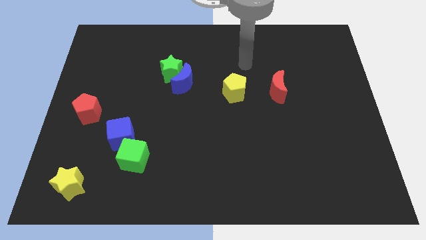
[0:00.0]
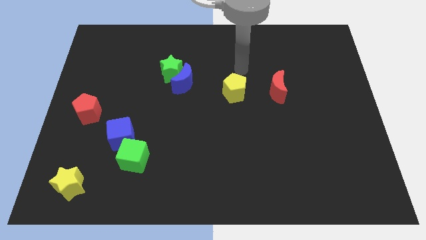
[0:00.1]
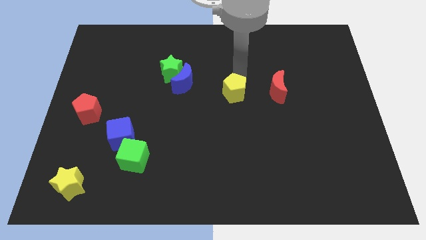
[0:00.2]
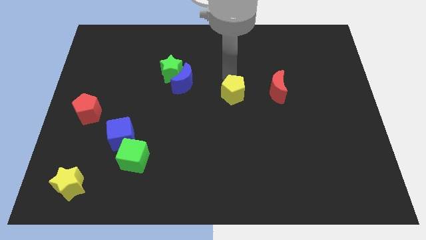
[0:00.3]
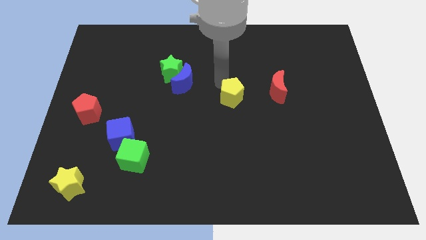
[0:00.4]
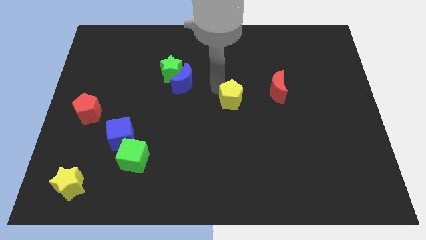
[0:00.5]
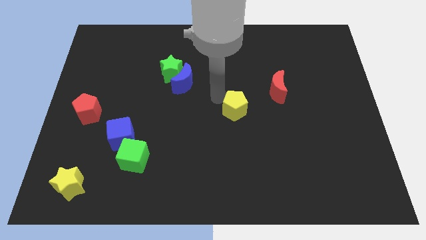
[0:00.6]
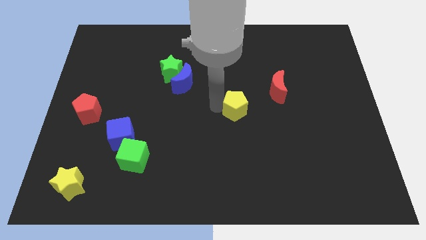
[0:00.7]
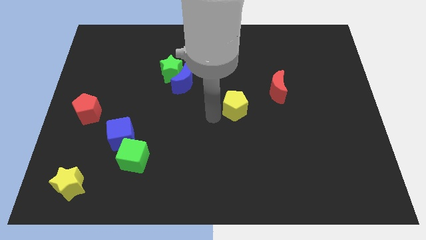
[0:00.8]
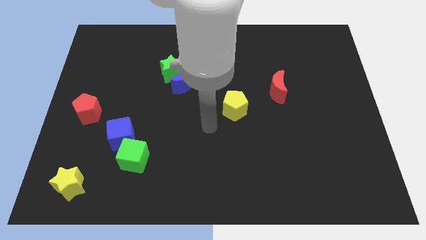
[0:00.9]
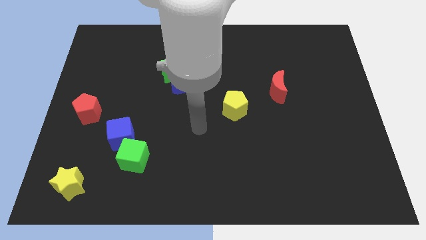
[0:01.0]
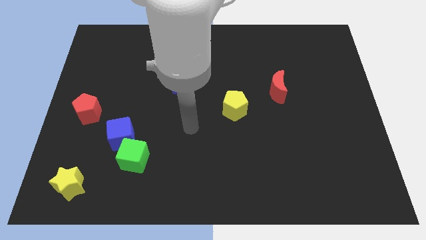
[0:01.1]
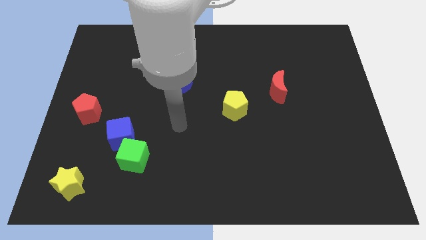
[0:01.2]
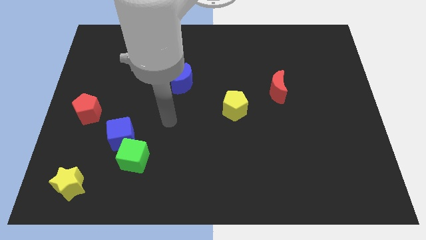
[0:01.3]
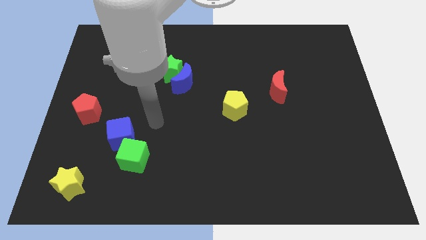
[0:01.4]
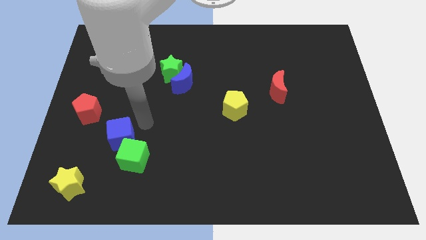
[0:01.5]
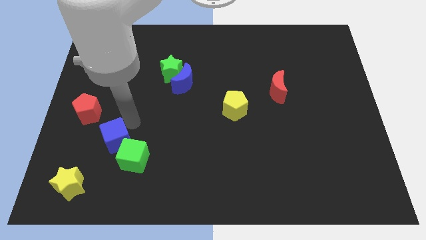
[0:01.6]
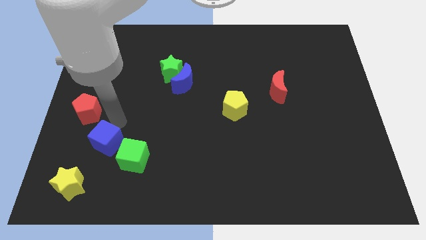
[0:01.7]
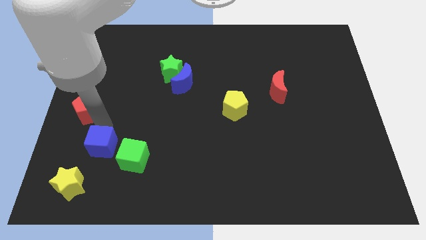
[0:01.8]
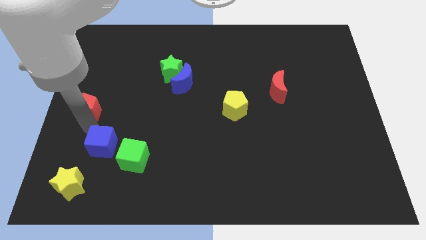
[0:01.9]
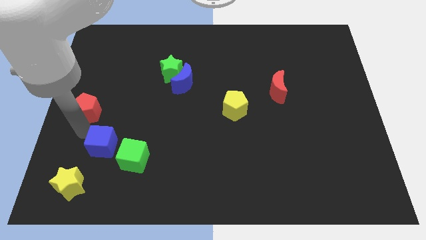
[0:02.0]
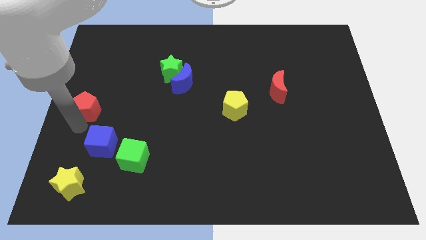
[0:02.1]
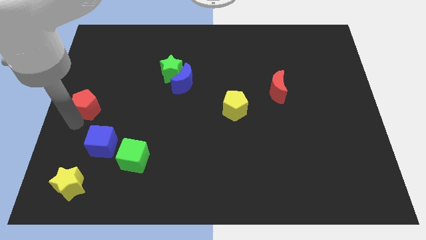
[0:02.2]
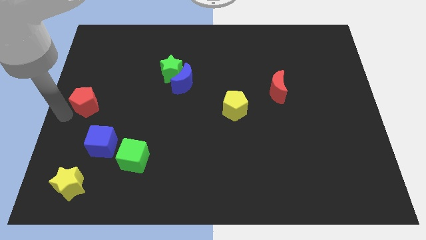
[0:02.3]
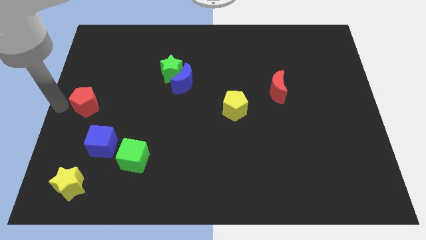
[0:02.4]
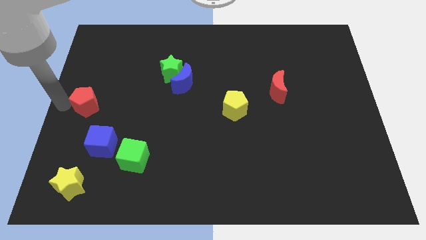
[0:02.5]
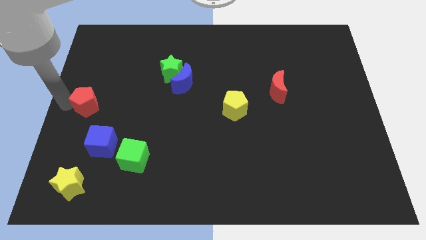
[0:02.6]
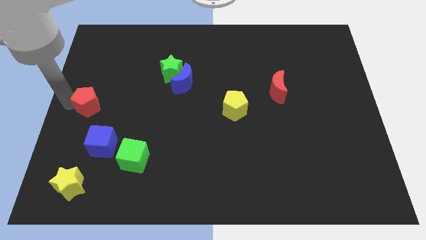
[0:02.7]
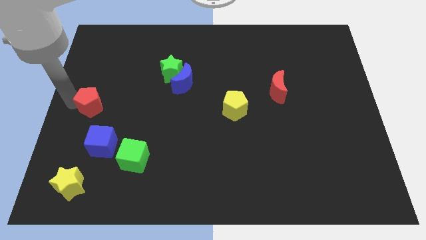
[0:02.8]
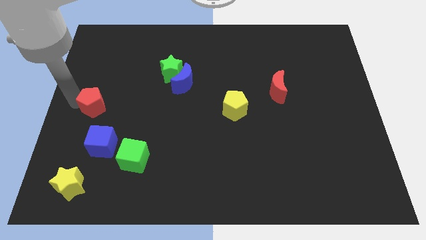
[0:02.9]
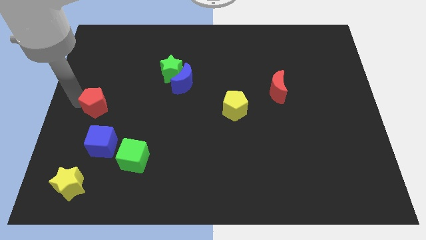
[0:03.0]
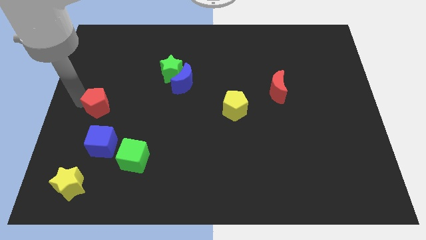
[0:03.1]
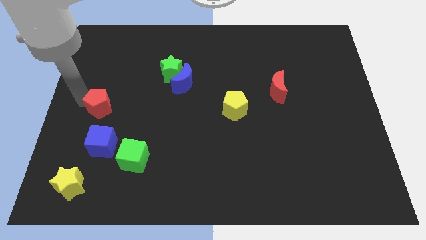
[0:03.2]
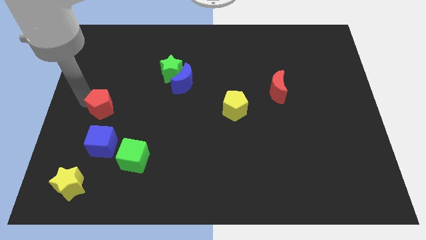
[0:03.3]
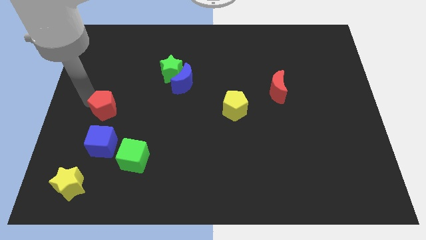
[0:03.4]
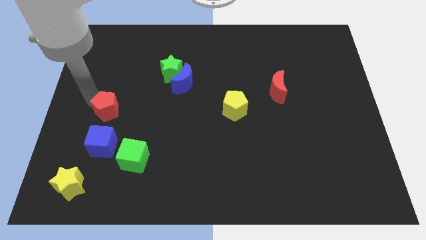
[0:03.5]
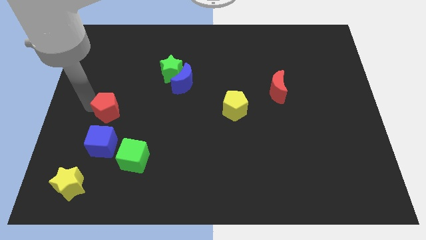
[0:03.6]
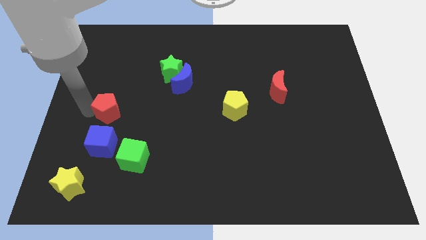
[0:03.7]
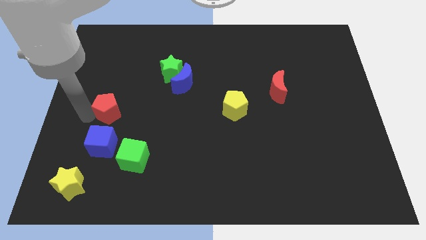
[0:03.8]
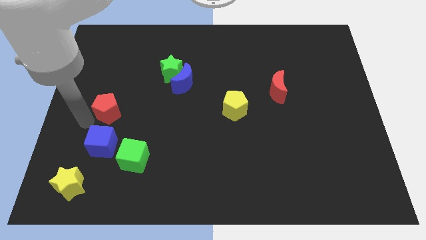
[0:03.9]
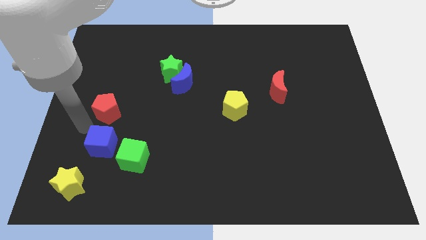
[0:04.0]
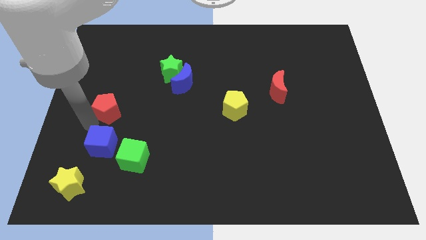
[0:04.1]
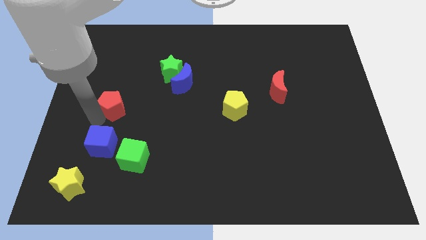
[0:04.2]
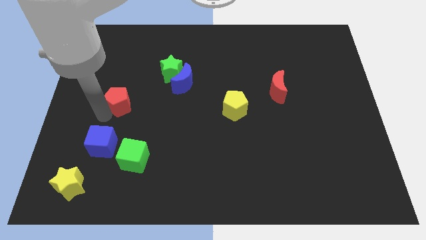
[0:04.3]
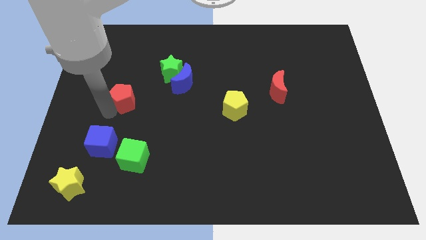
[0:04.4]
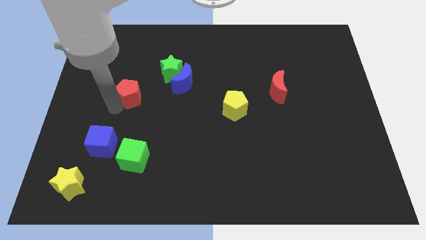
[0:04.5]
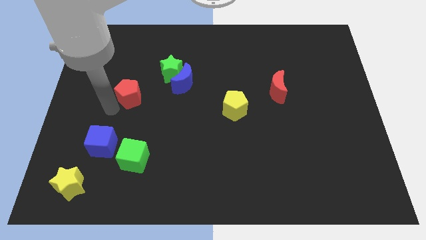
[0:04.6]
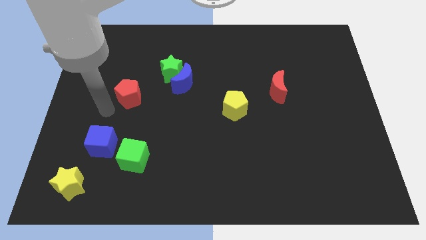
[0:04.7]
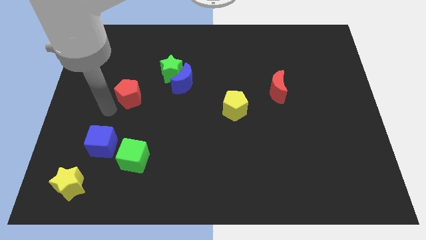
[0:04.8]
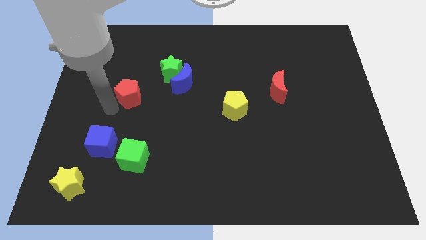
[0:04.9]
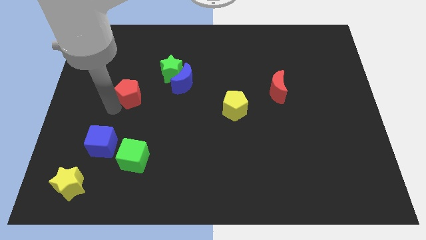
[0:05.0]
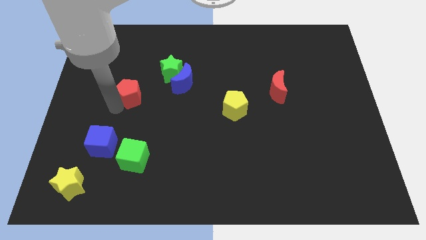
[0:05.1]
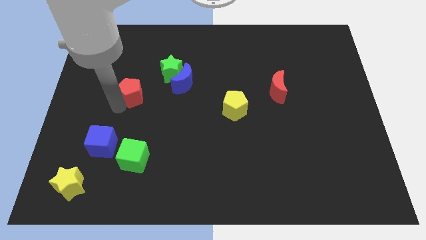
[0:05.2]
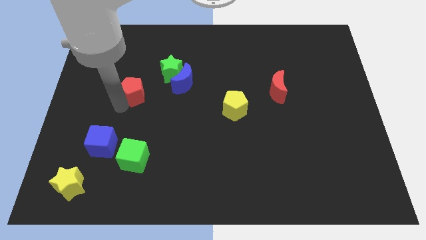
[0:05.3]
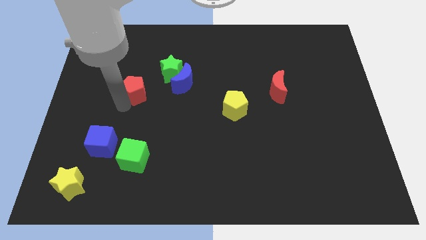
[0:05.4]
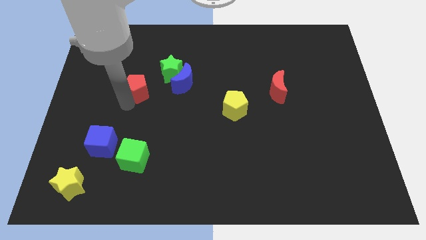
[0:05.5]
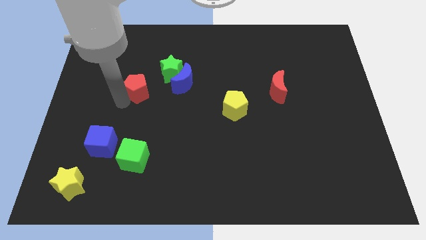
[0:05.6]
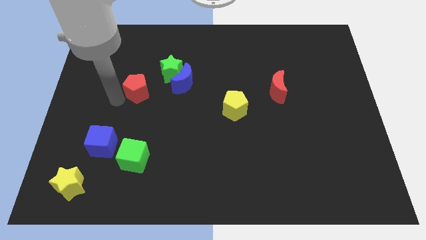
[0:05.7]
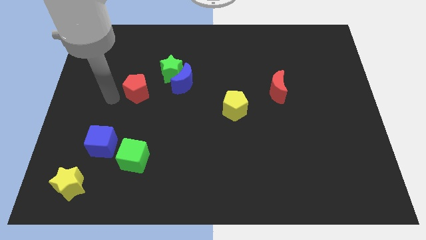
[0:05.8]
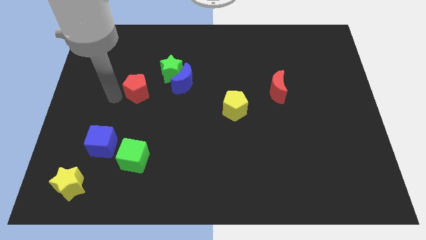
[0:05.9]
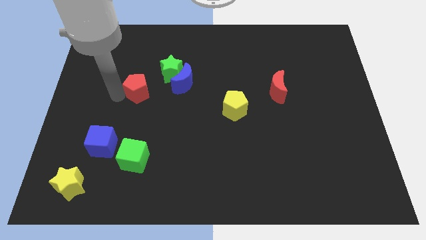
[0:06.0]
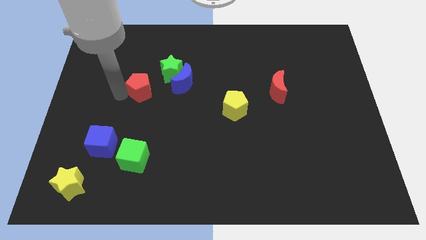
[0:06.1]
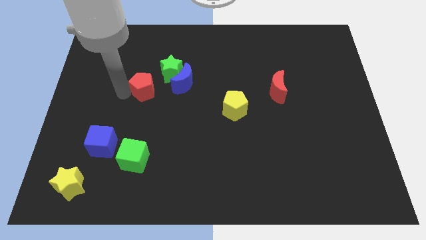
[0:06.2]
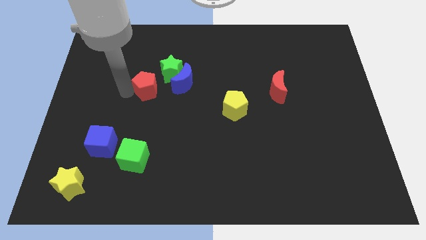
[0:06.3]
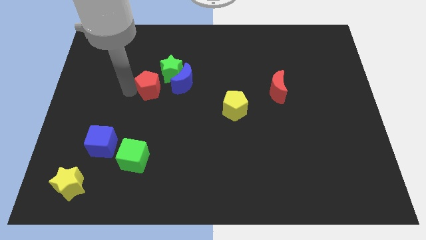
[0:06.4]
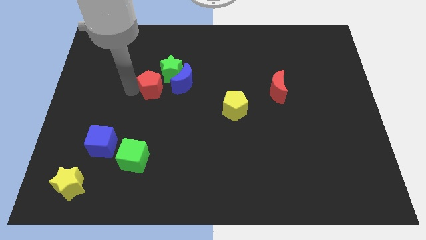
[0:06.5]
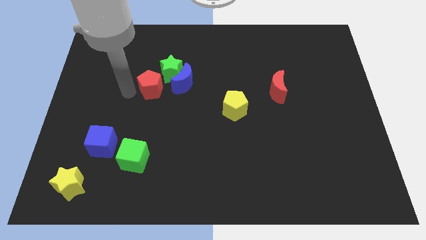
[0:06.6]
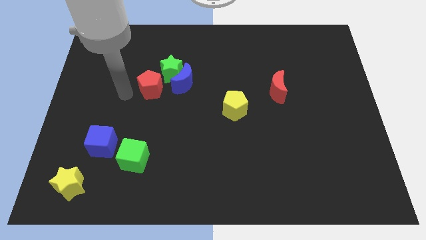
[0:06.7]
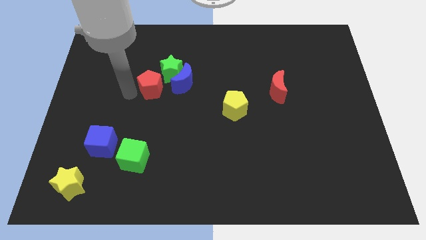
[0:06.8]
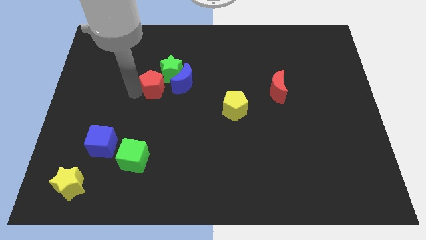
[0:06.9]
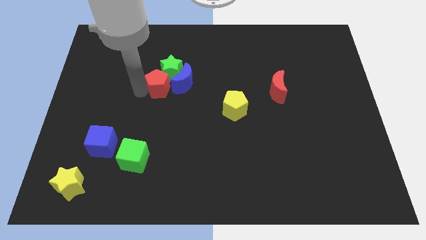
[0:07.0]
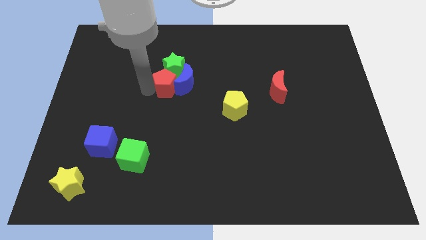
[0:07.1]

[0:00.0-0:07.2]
move the red pentagon towards the blue moon

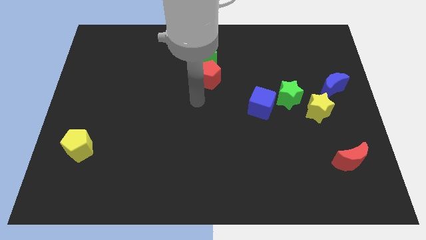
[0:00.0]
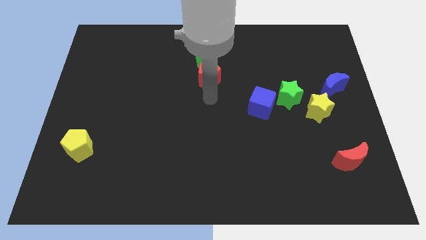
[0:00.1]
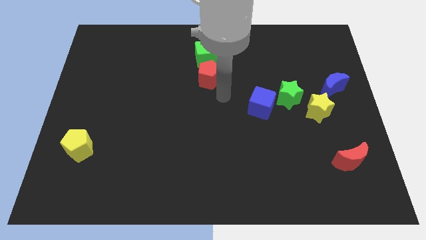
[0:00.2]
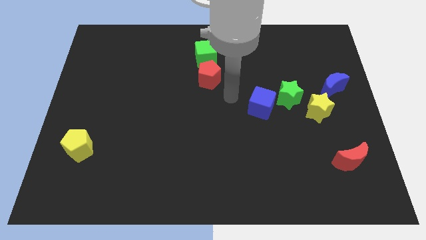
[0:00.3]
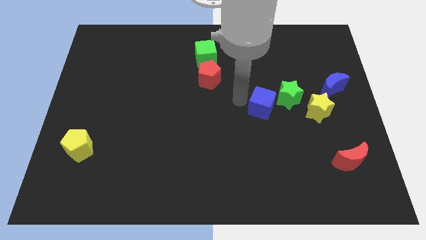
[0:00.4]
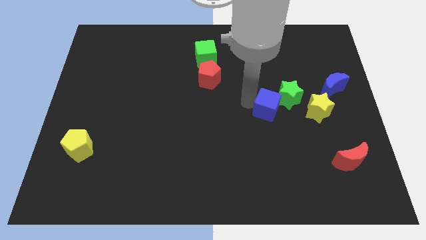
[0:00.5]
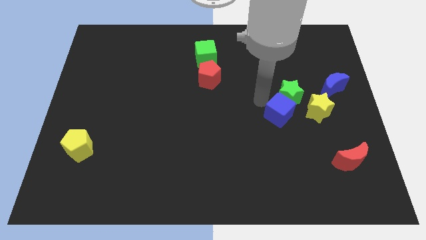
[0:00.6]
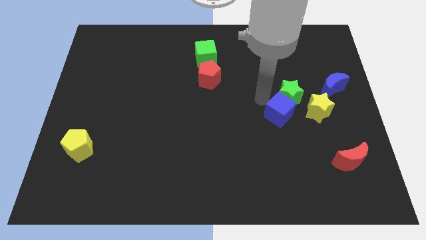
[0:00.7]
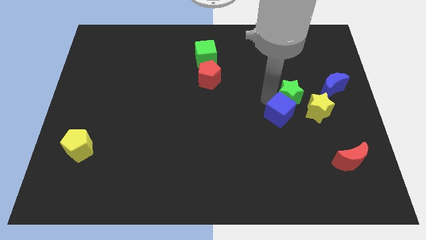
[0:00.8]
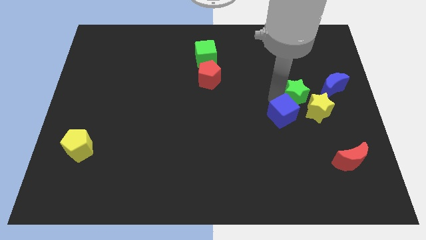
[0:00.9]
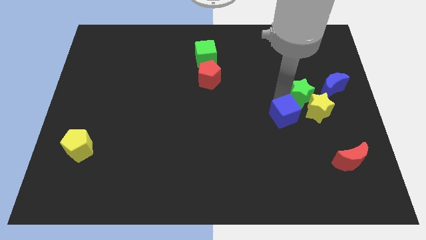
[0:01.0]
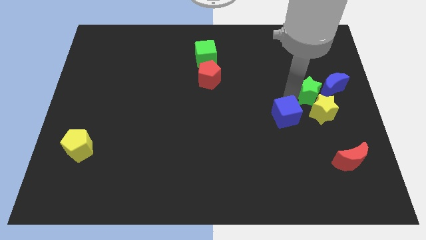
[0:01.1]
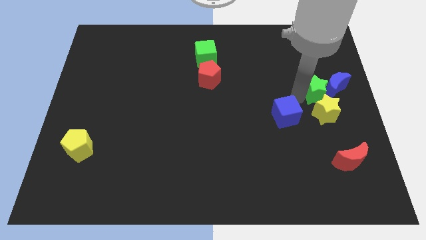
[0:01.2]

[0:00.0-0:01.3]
push the green star close to the blue moon
